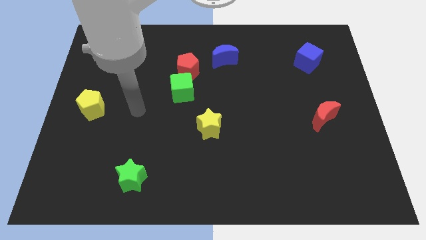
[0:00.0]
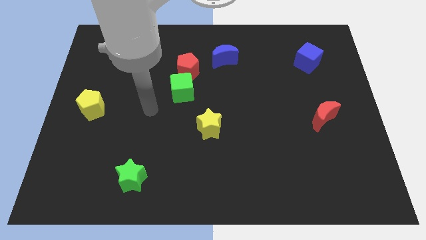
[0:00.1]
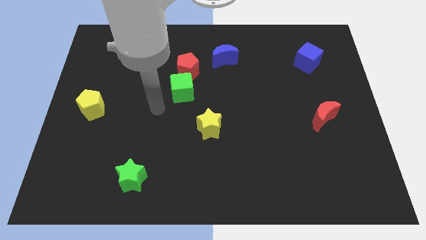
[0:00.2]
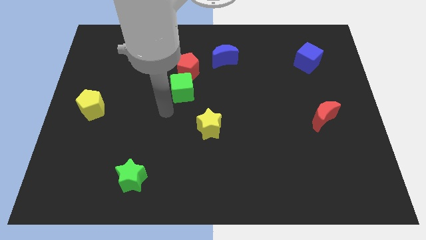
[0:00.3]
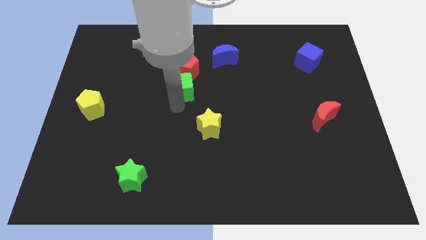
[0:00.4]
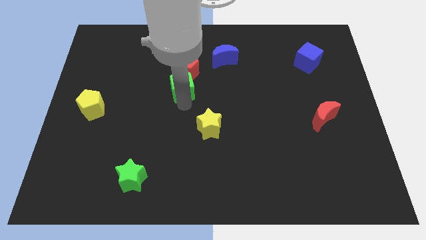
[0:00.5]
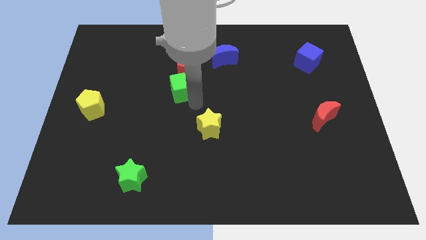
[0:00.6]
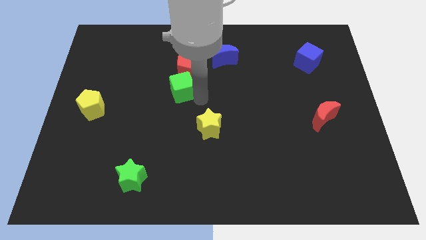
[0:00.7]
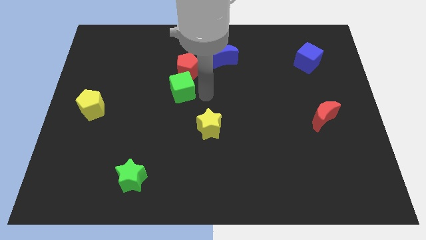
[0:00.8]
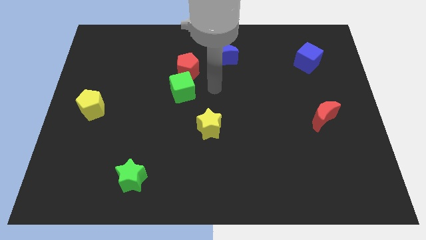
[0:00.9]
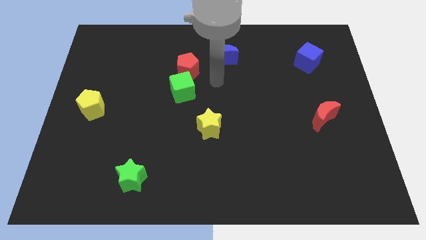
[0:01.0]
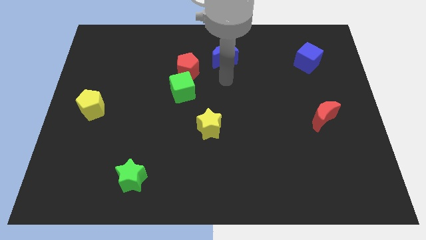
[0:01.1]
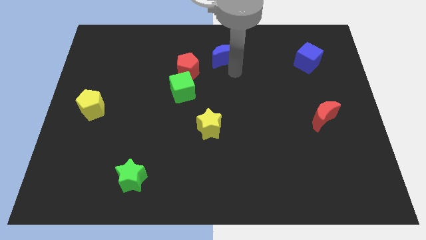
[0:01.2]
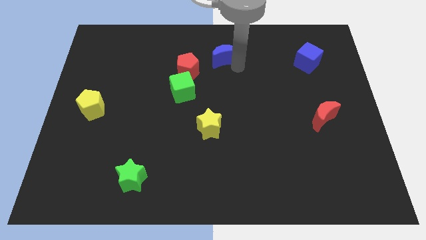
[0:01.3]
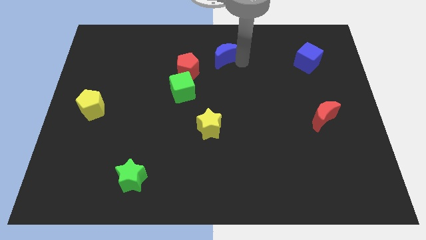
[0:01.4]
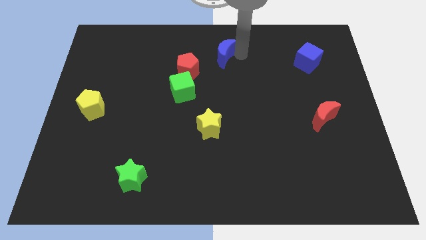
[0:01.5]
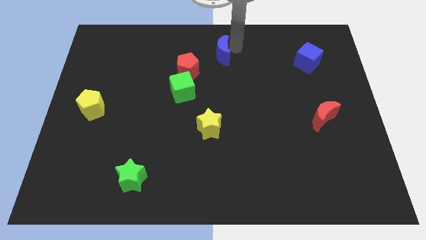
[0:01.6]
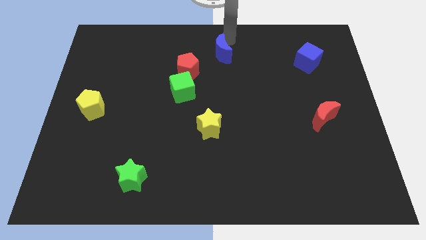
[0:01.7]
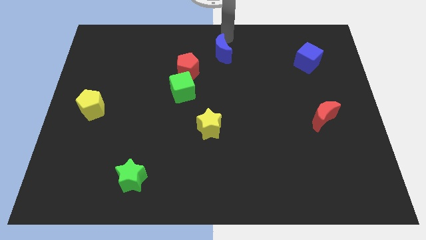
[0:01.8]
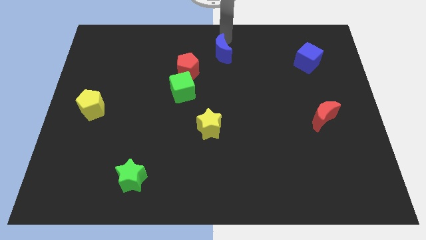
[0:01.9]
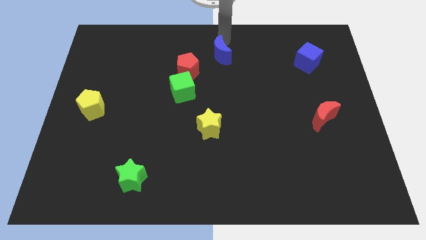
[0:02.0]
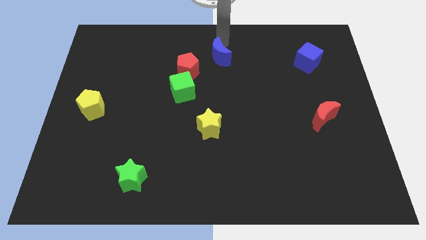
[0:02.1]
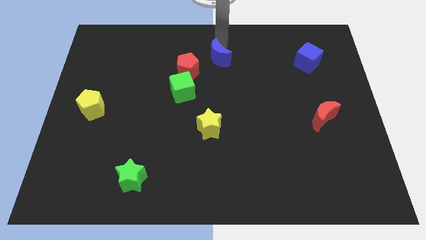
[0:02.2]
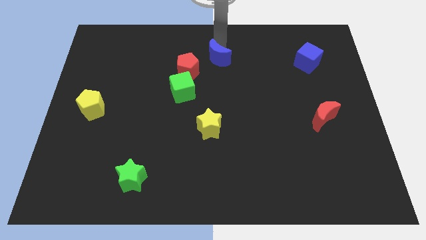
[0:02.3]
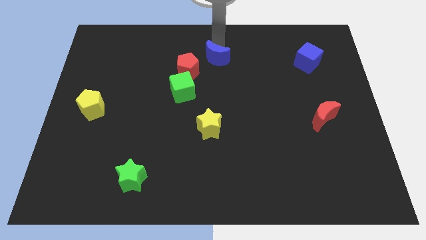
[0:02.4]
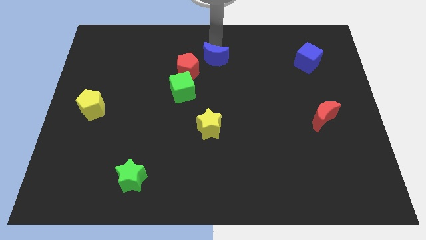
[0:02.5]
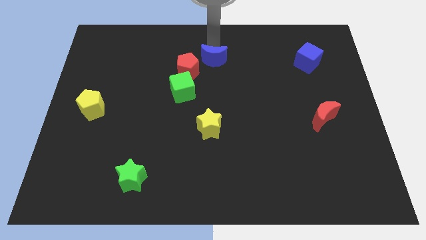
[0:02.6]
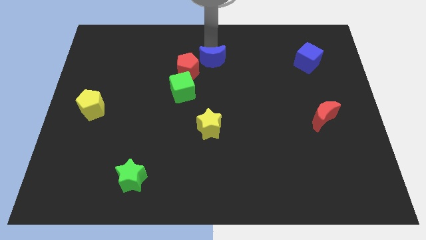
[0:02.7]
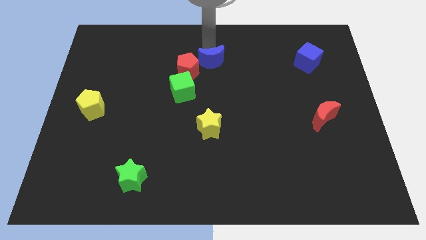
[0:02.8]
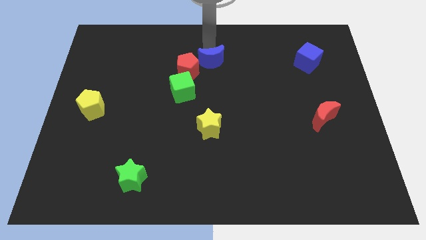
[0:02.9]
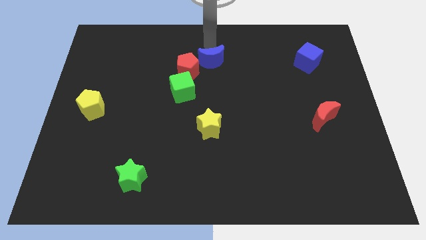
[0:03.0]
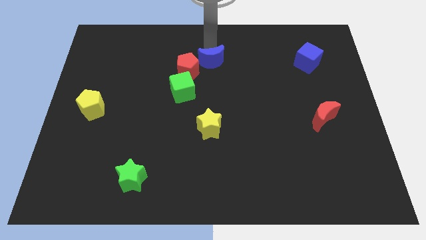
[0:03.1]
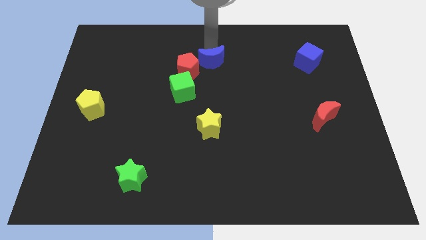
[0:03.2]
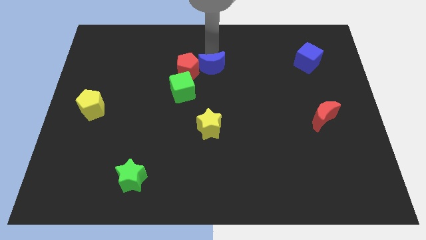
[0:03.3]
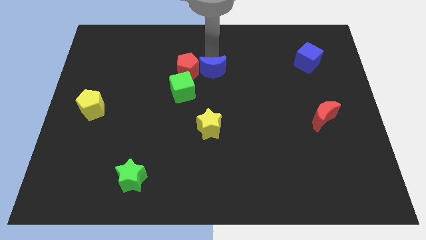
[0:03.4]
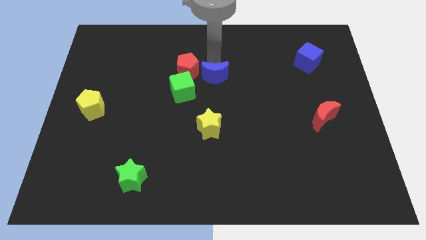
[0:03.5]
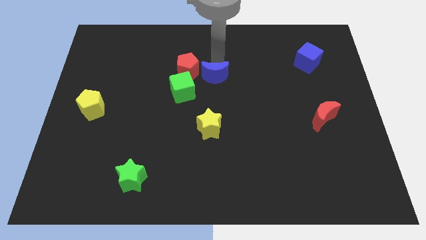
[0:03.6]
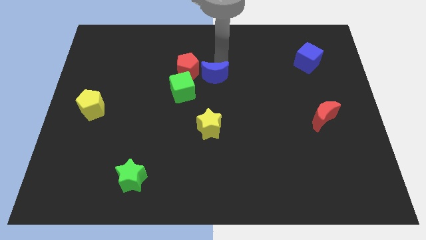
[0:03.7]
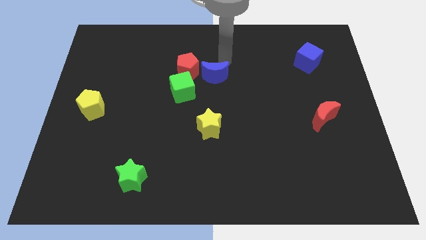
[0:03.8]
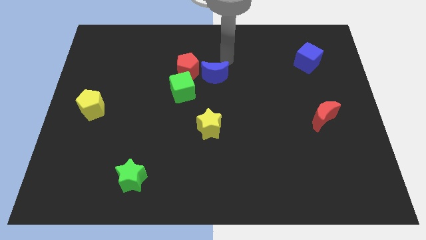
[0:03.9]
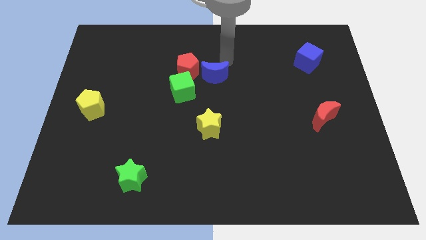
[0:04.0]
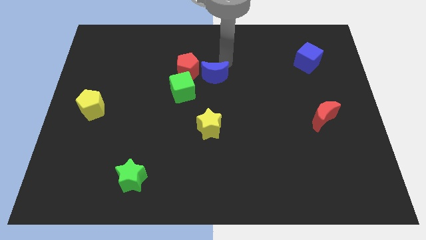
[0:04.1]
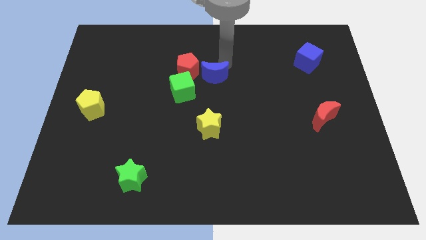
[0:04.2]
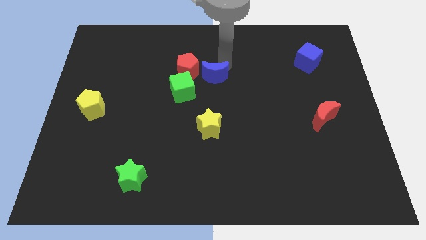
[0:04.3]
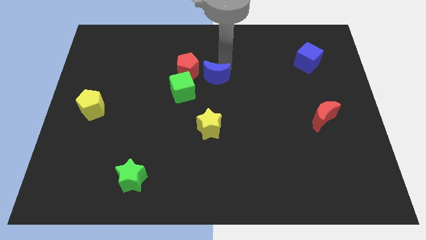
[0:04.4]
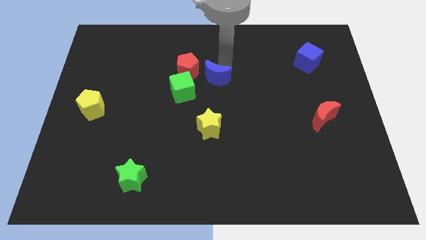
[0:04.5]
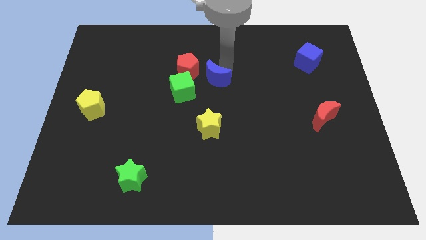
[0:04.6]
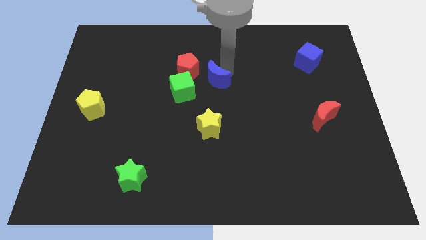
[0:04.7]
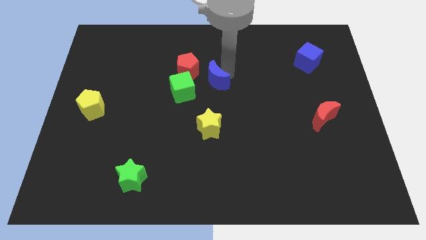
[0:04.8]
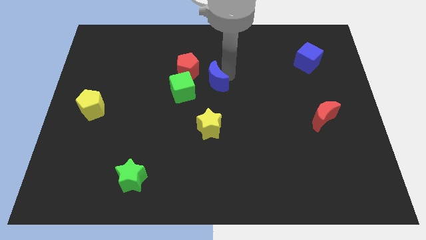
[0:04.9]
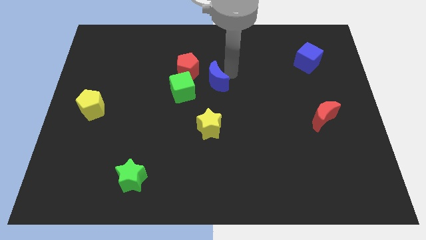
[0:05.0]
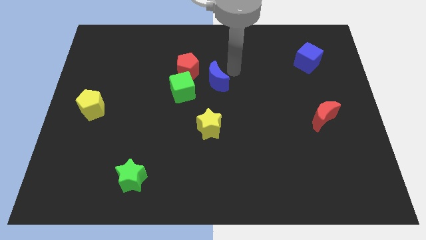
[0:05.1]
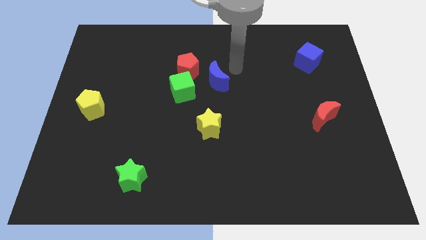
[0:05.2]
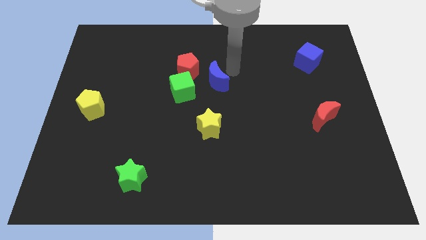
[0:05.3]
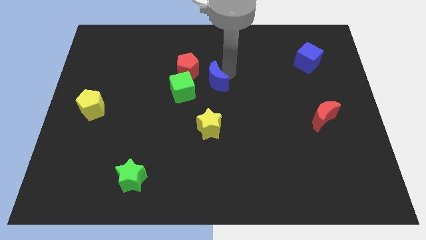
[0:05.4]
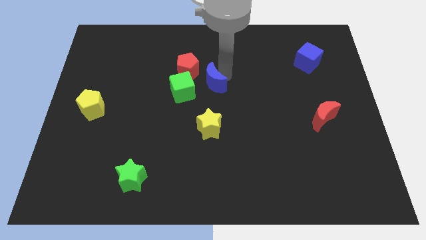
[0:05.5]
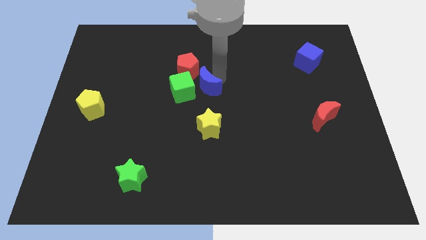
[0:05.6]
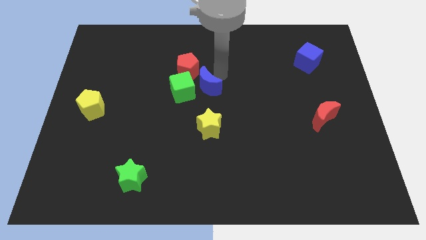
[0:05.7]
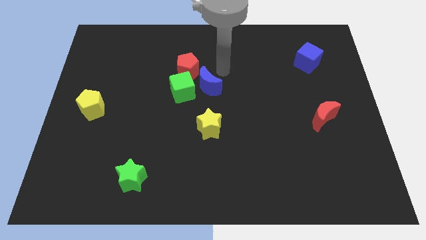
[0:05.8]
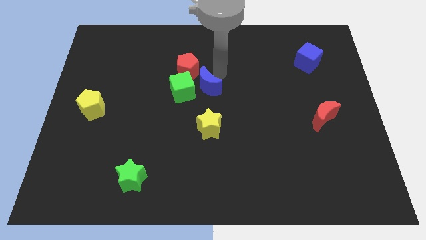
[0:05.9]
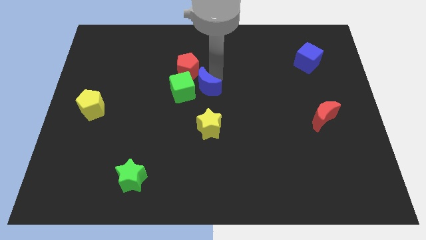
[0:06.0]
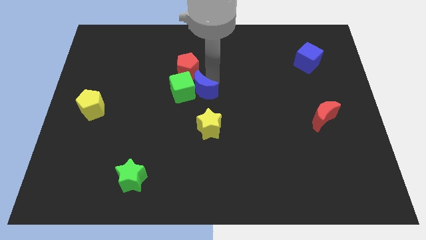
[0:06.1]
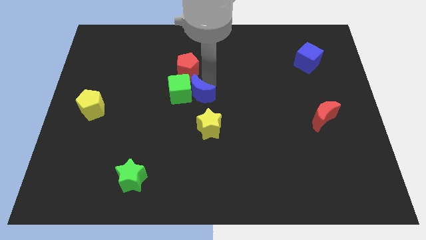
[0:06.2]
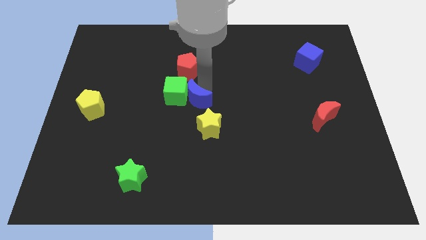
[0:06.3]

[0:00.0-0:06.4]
push the blue moon to the top left side of the yellow star

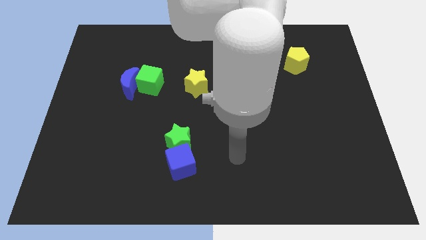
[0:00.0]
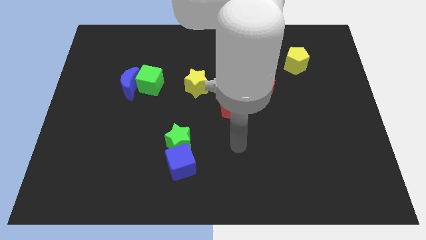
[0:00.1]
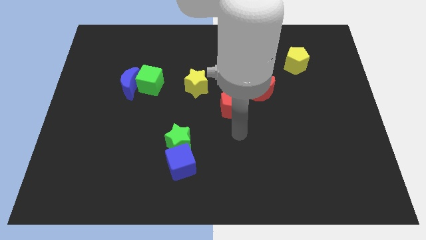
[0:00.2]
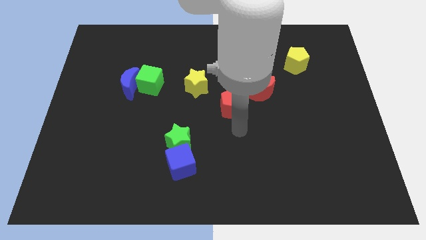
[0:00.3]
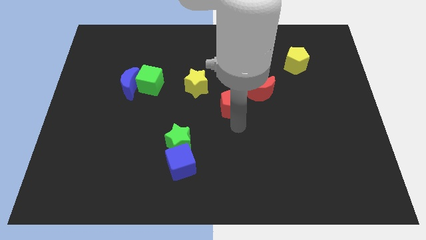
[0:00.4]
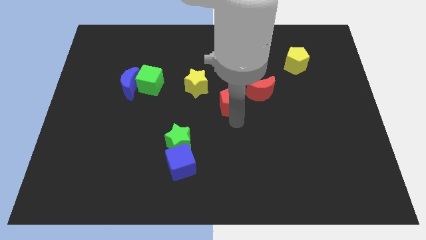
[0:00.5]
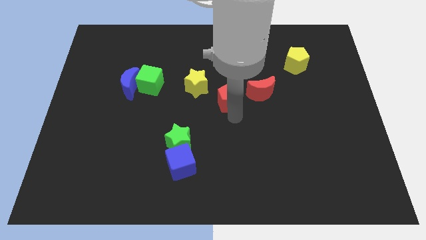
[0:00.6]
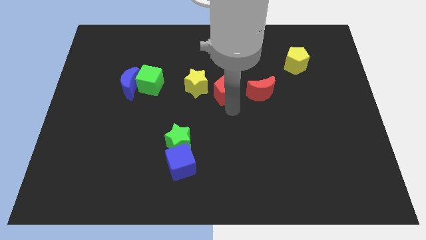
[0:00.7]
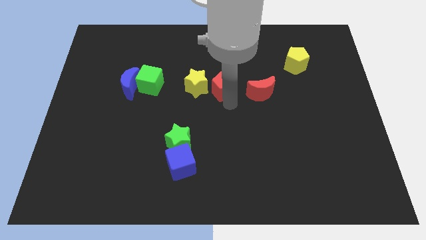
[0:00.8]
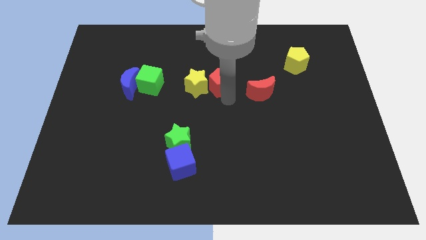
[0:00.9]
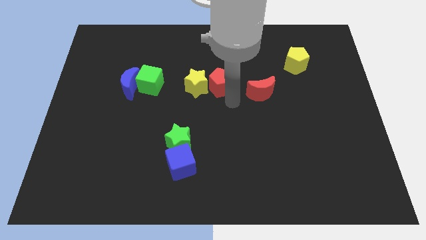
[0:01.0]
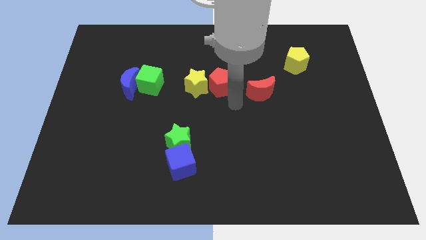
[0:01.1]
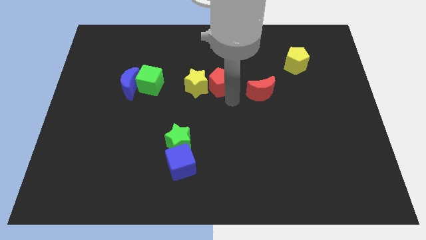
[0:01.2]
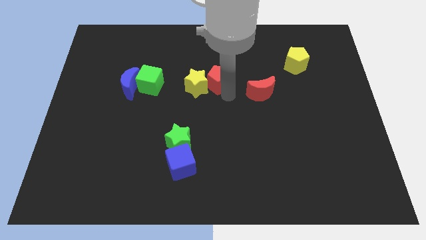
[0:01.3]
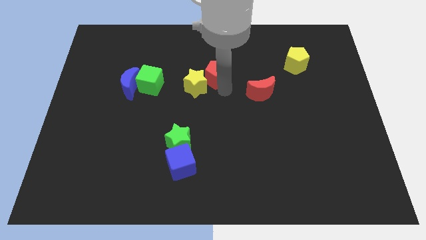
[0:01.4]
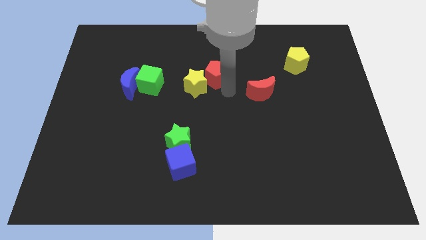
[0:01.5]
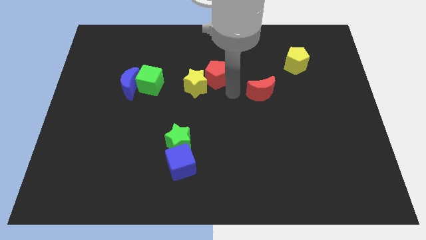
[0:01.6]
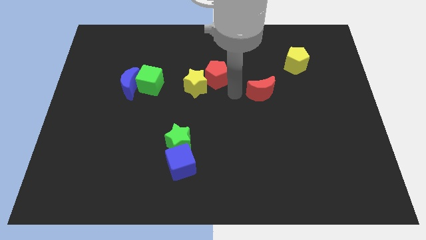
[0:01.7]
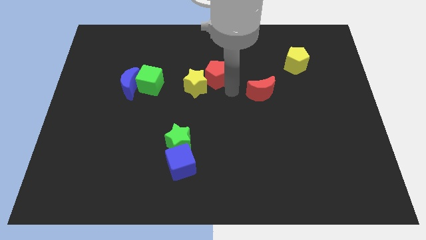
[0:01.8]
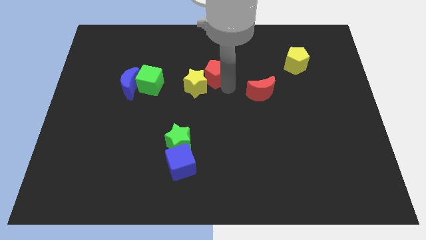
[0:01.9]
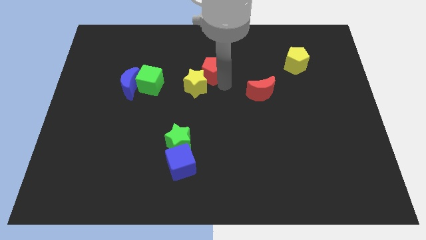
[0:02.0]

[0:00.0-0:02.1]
slide the red pentagon to the top of the yellow star
